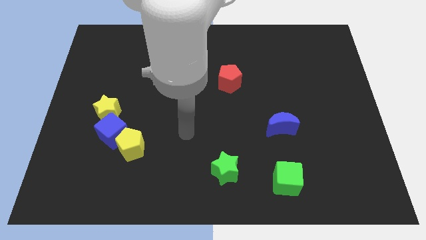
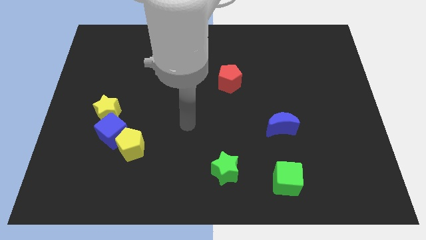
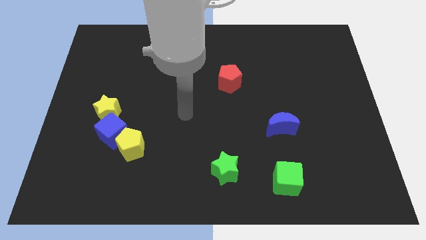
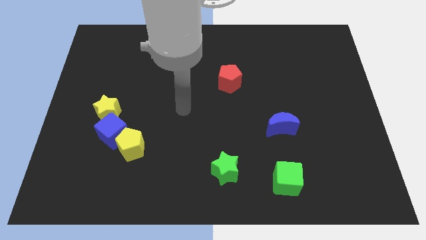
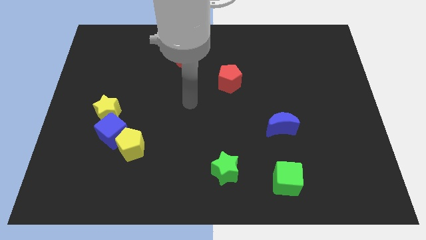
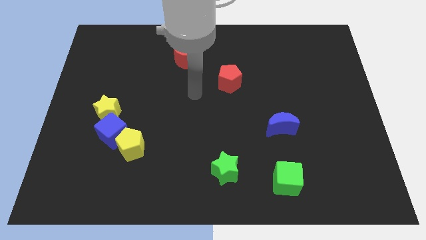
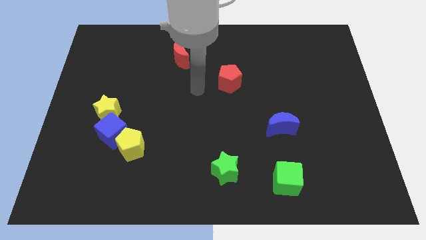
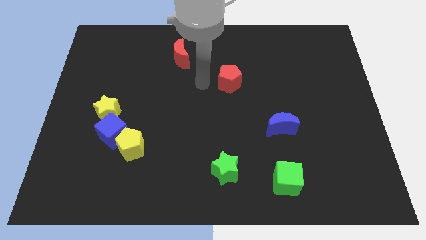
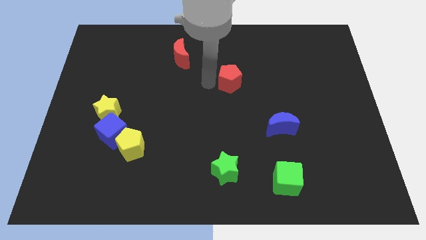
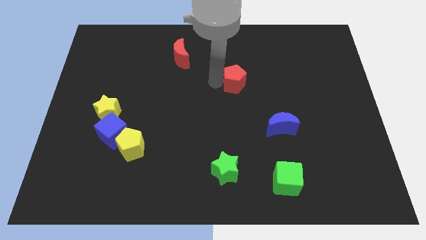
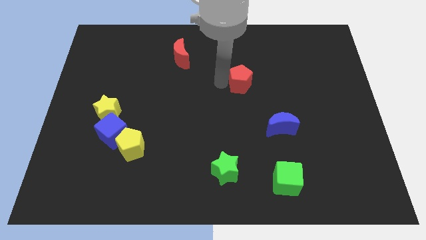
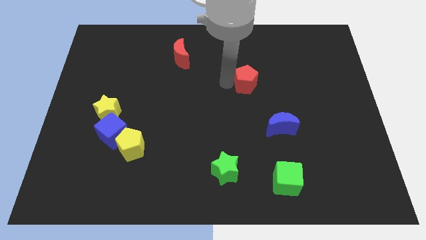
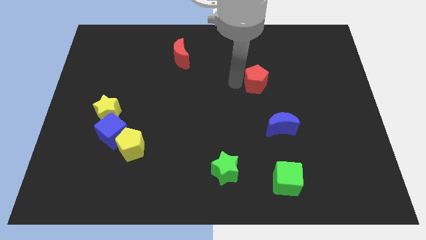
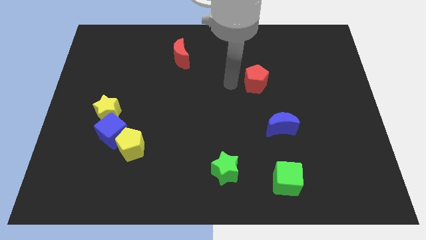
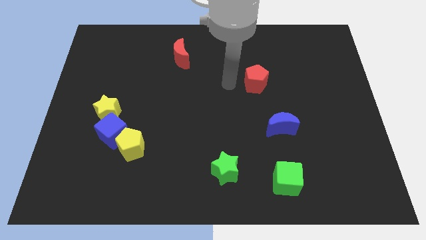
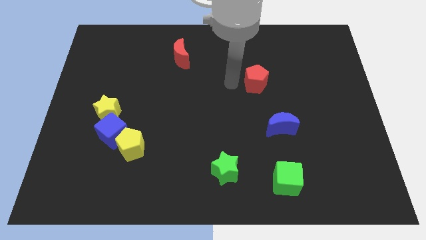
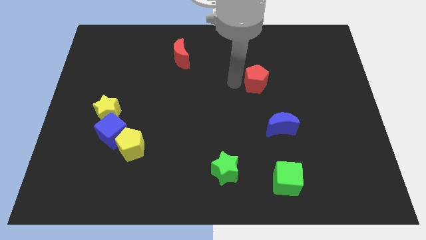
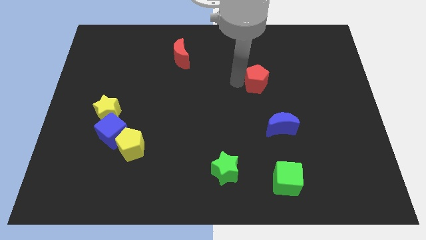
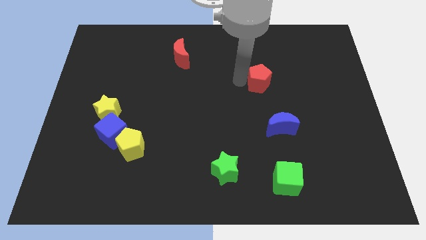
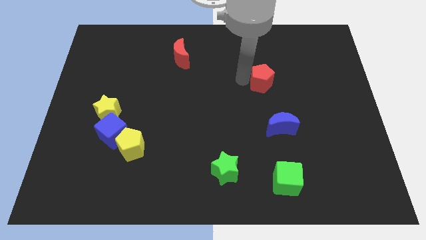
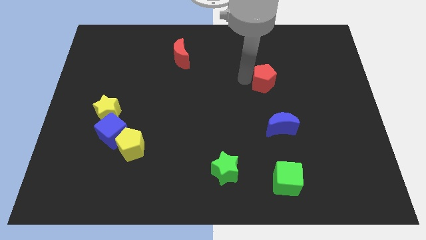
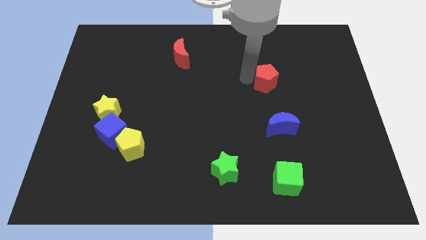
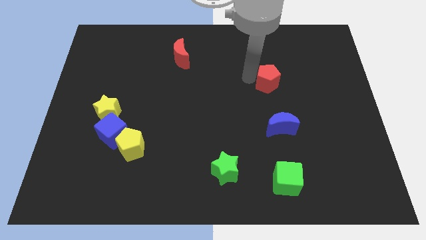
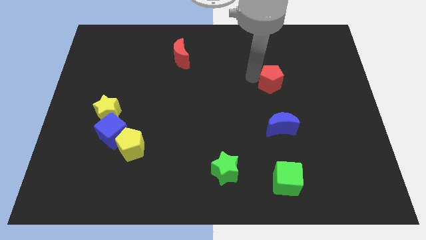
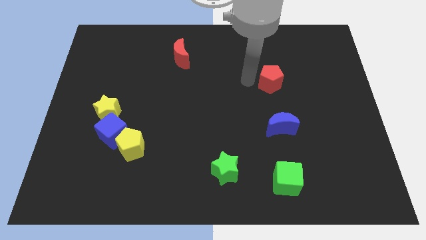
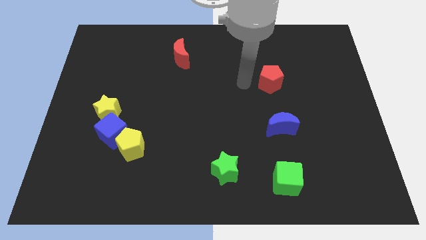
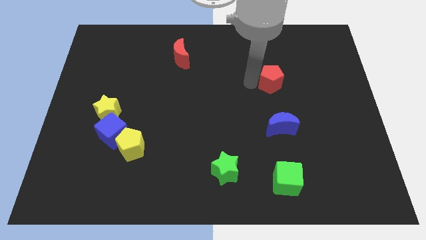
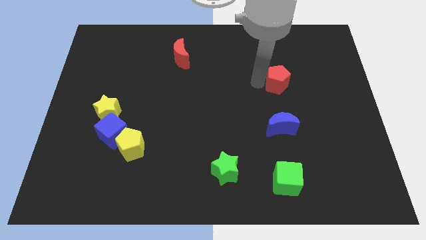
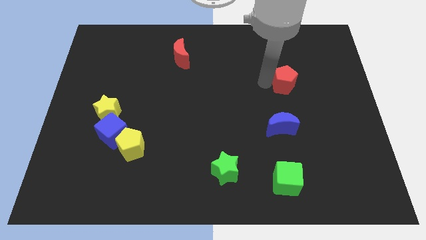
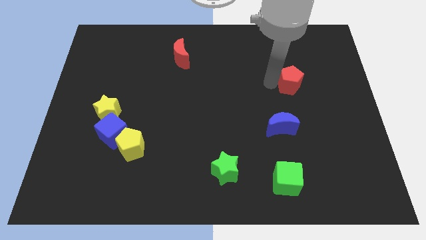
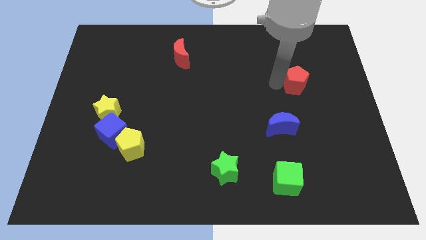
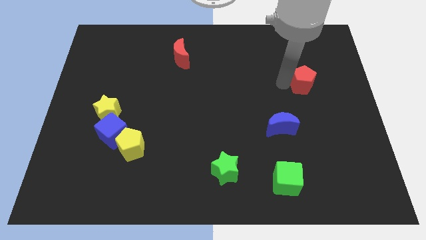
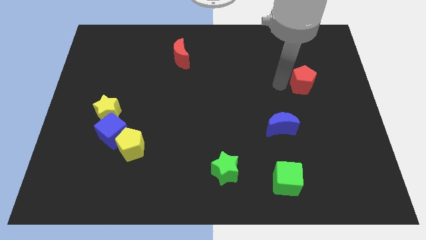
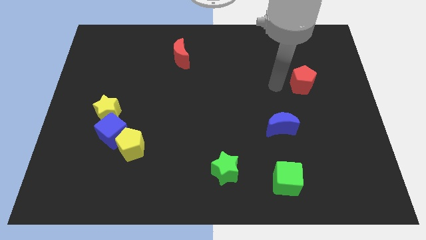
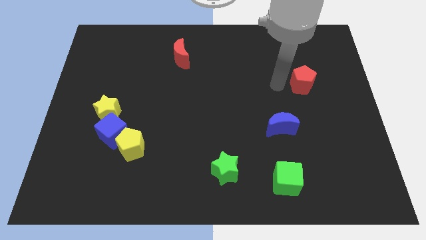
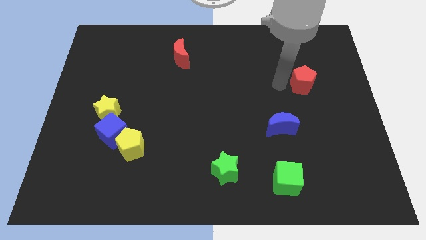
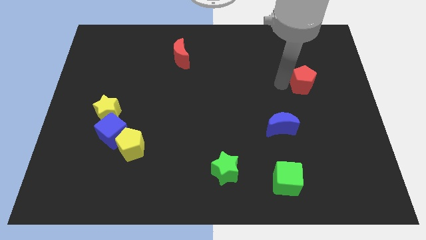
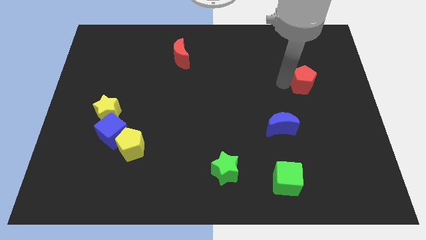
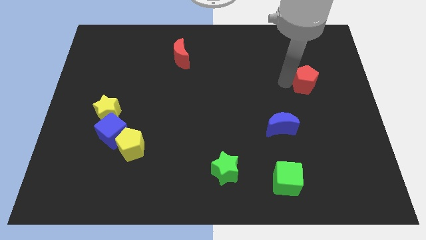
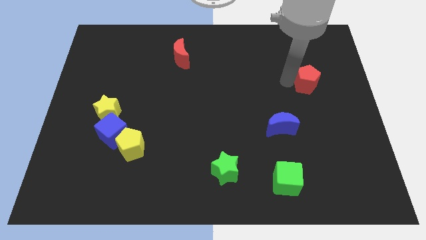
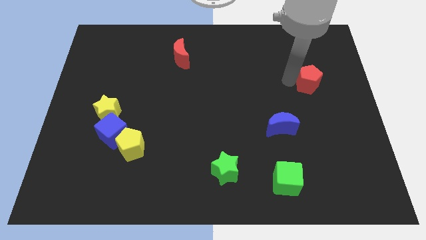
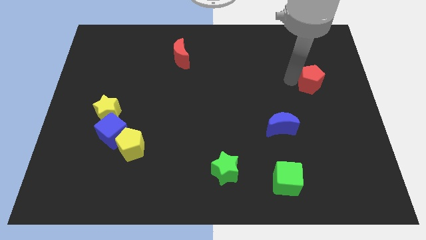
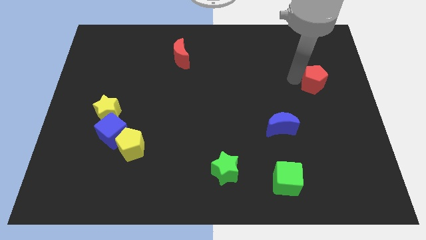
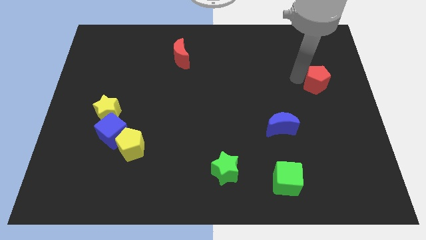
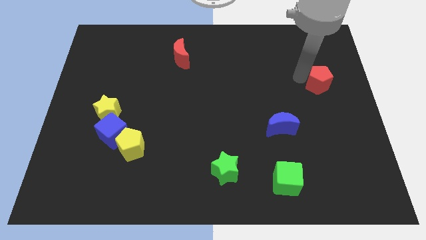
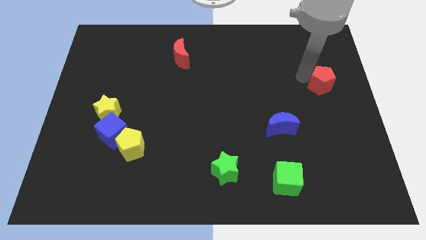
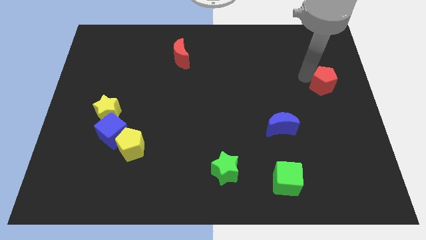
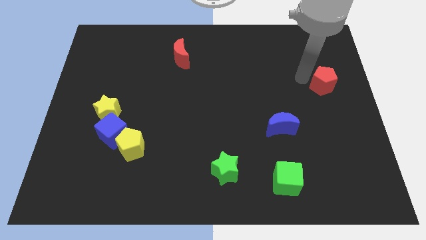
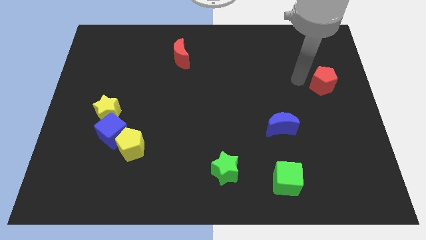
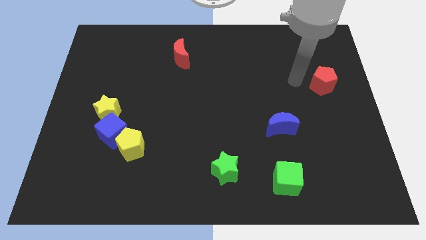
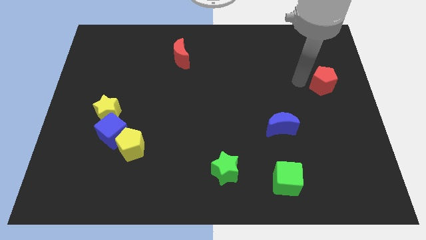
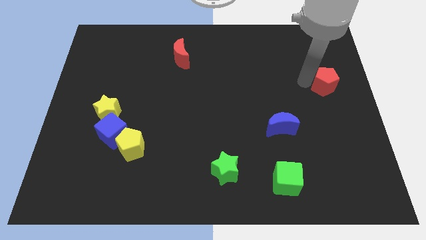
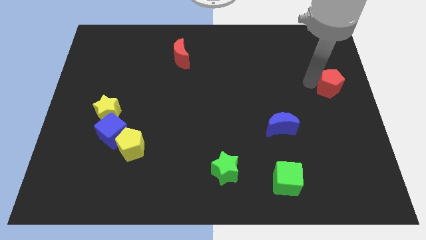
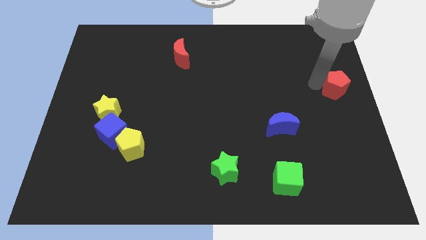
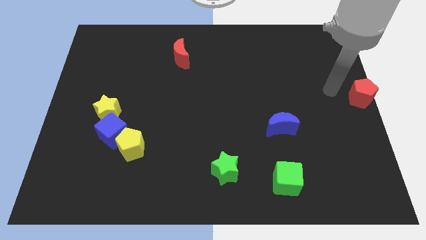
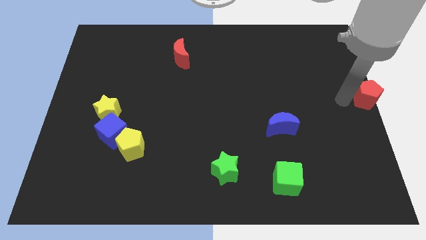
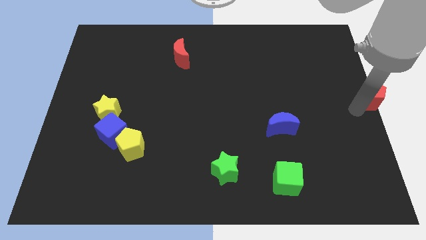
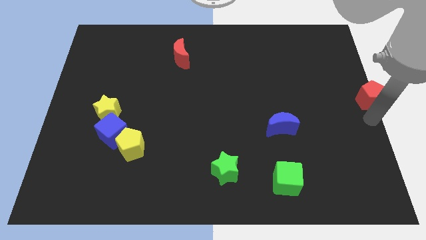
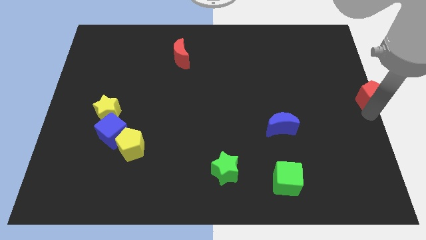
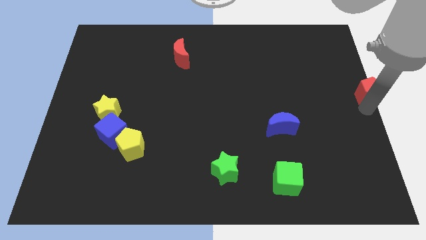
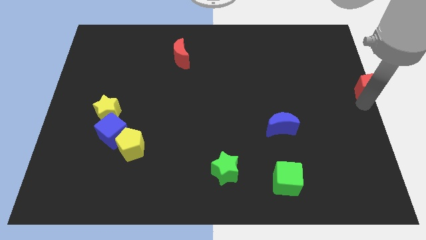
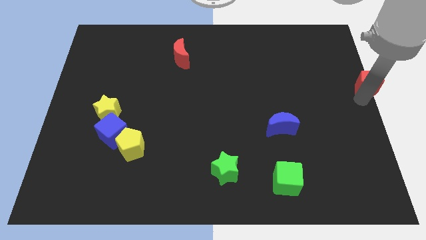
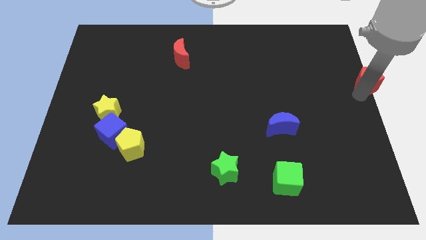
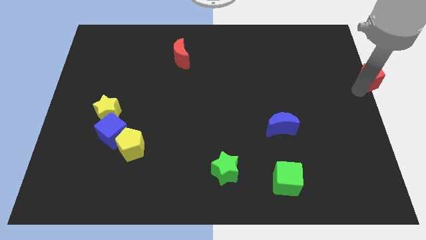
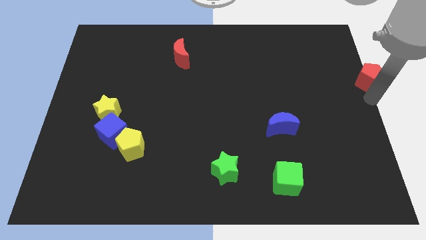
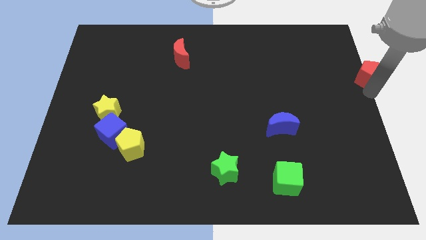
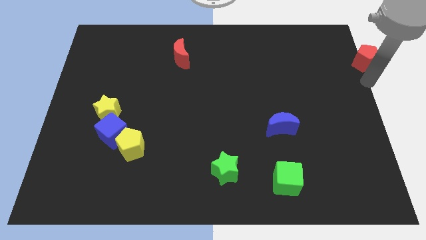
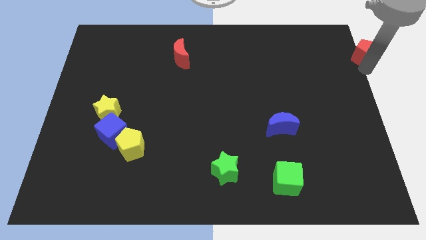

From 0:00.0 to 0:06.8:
put the red pentagon to the upper right corner
